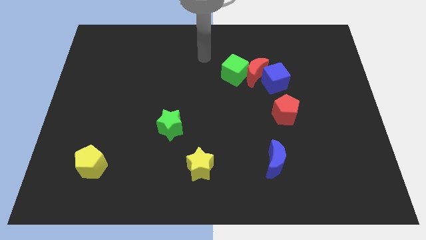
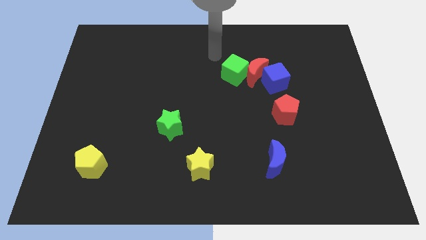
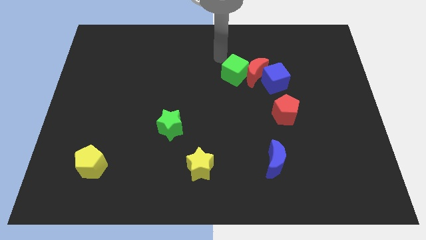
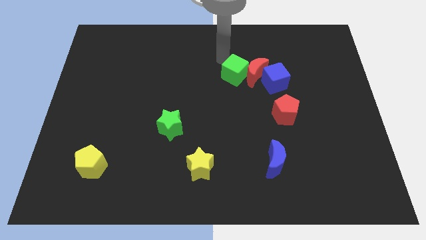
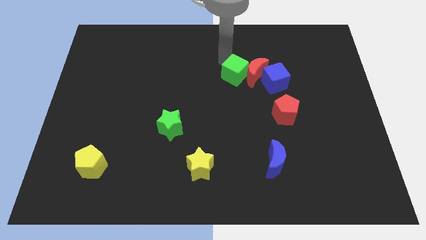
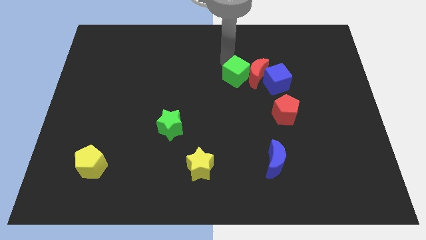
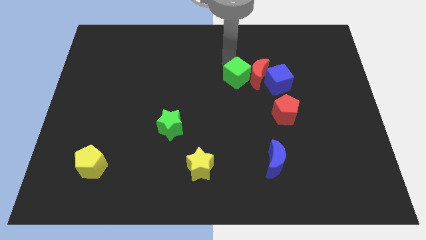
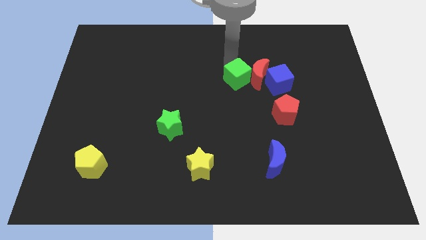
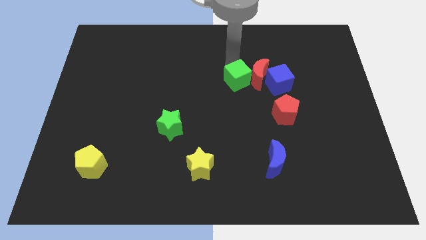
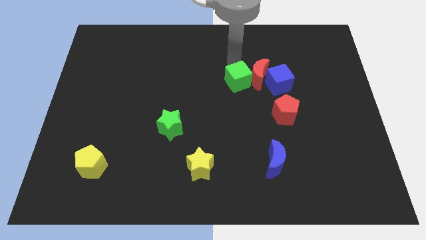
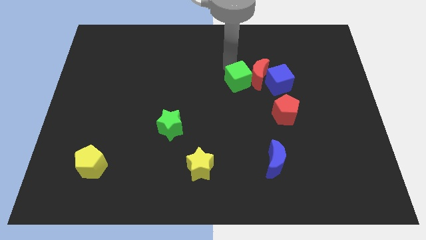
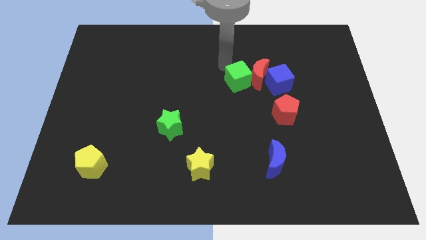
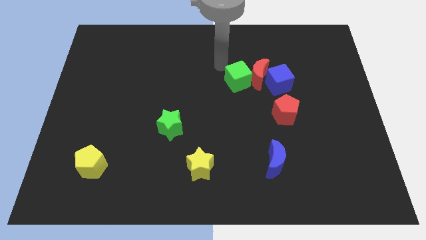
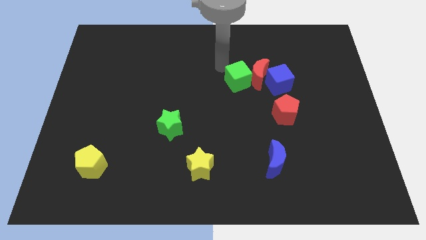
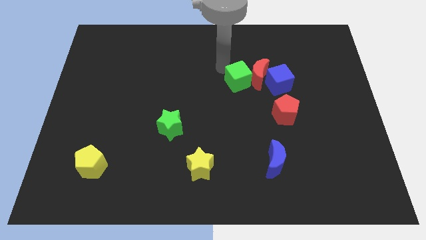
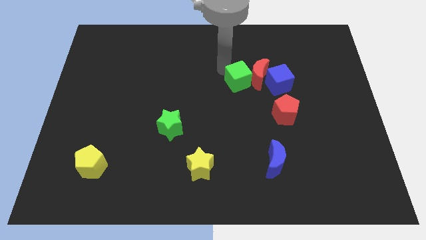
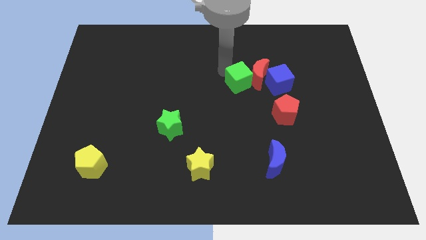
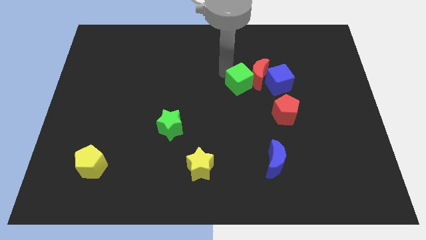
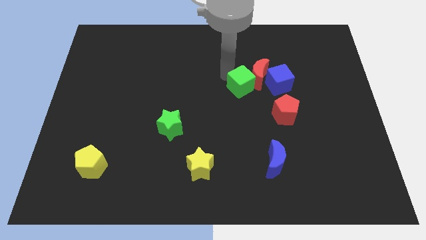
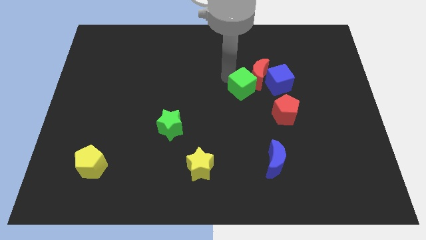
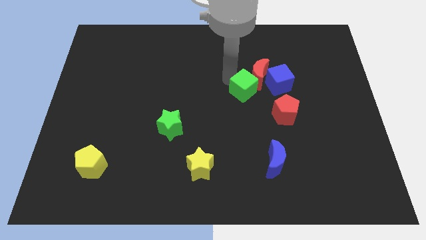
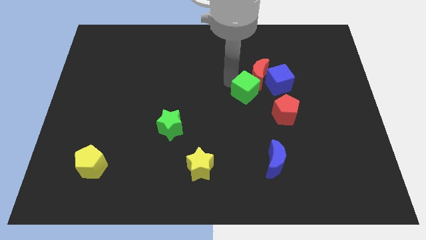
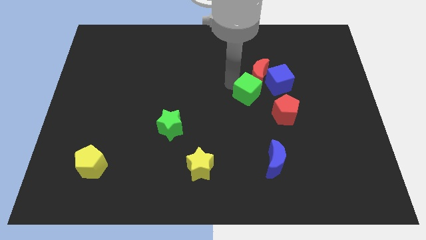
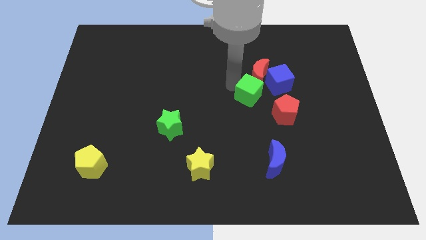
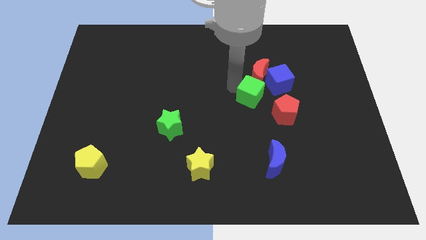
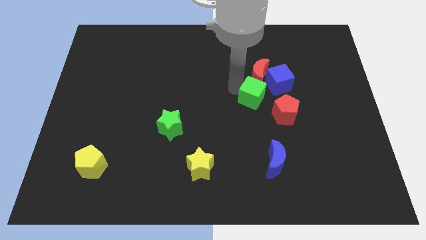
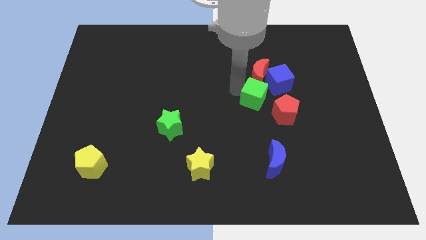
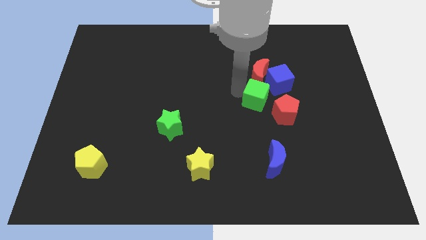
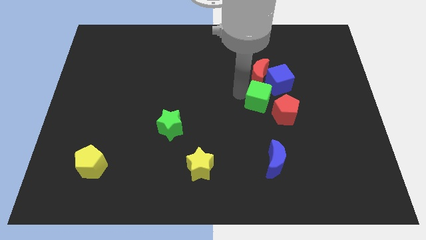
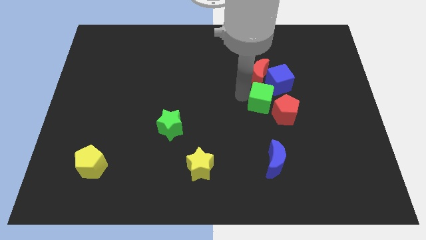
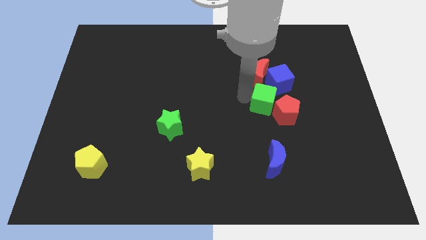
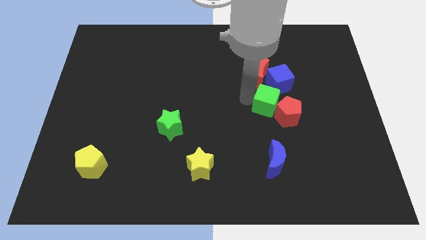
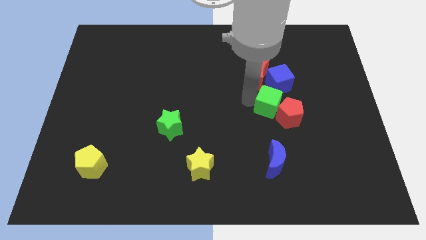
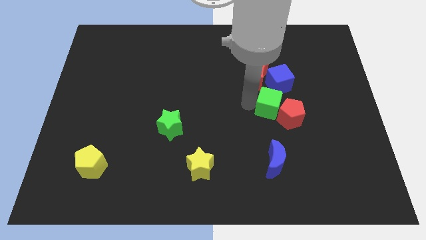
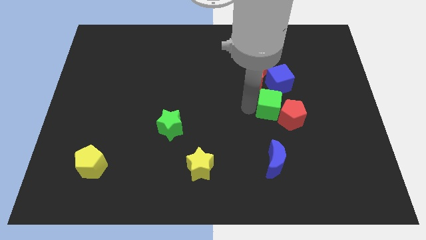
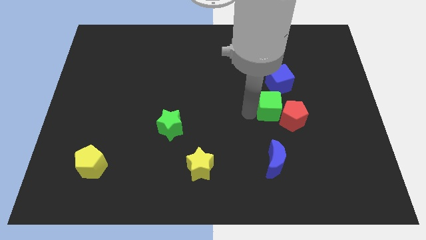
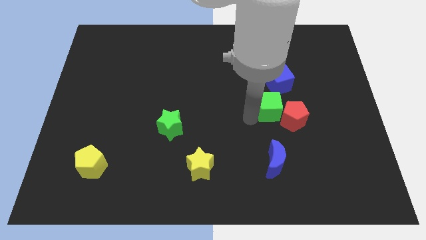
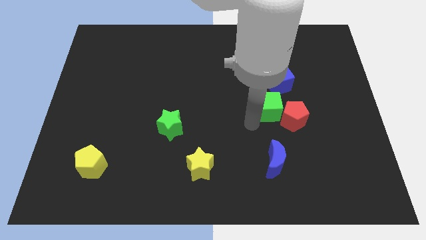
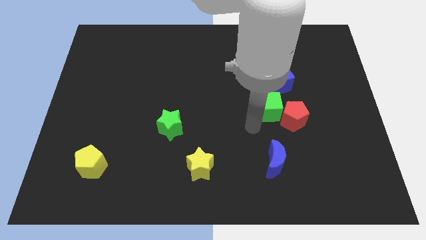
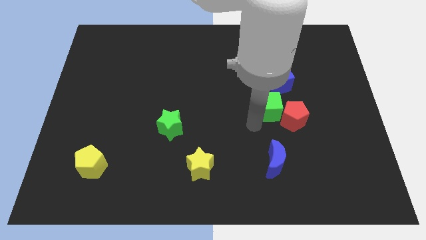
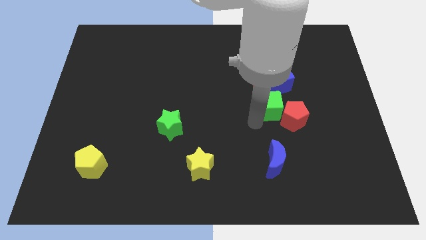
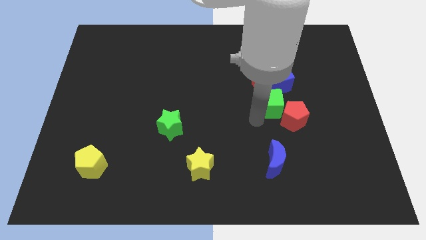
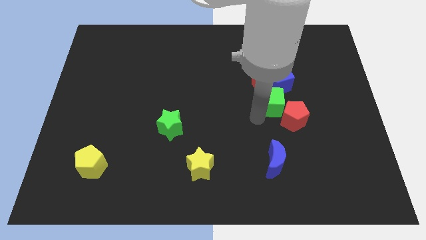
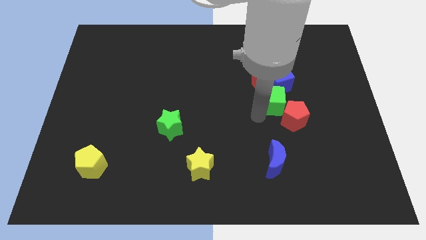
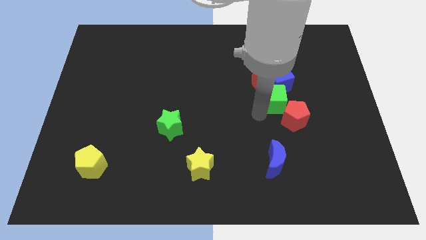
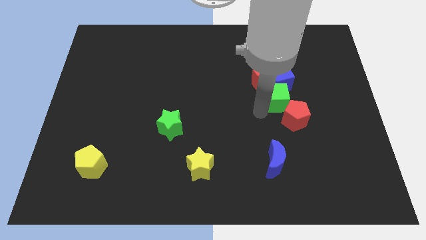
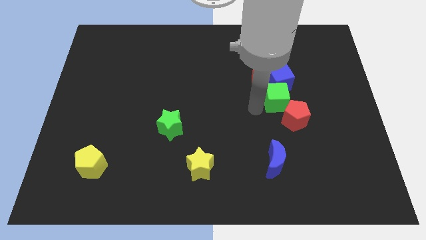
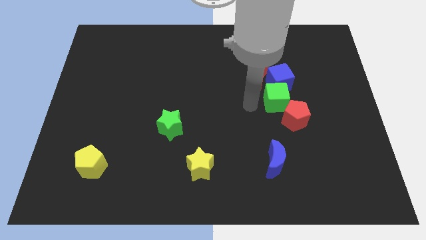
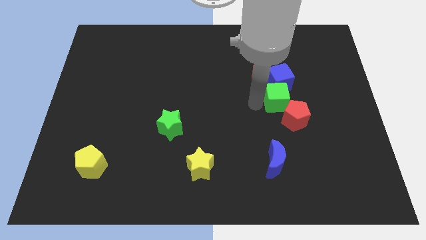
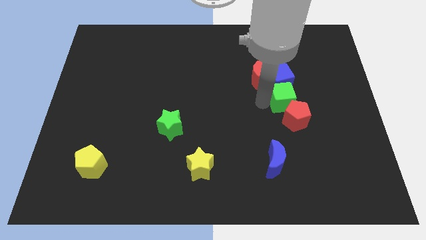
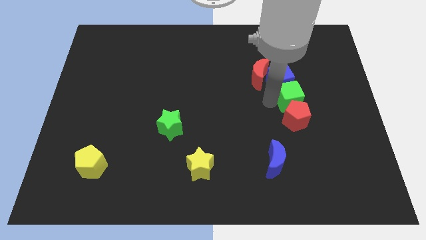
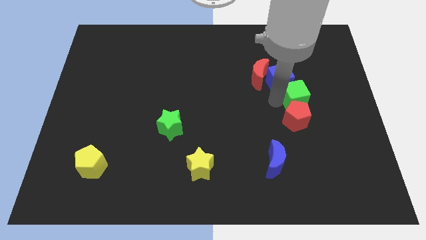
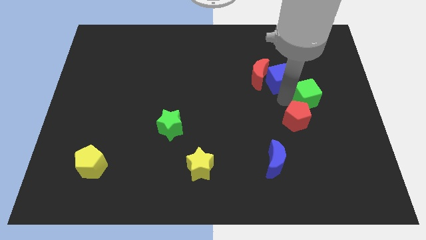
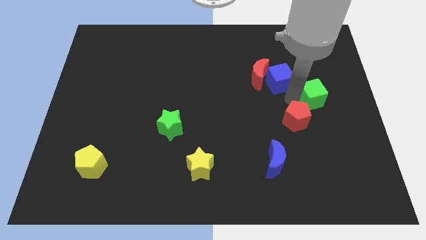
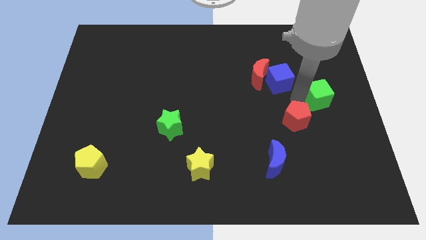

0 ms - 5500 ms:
slide the green cube to the right side

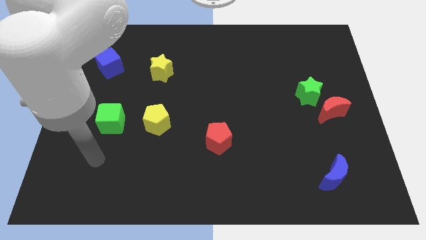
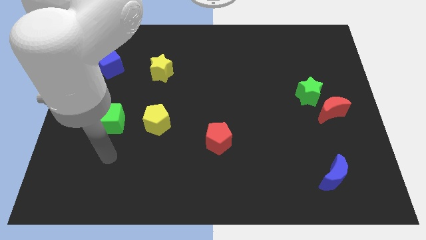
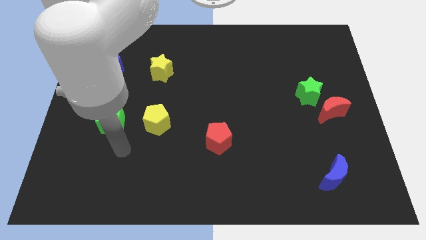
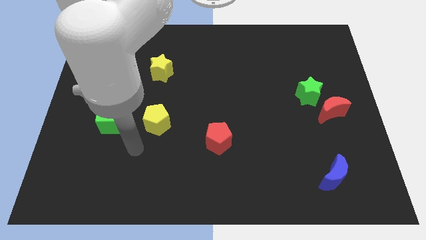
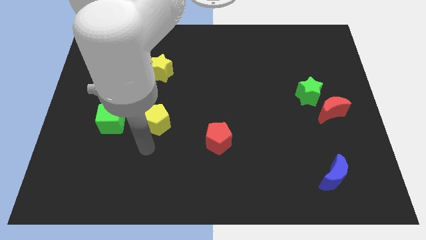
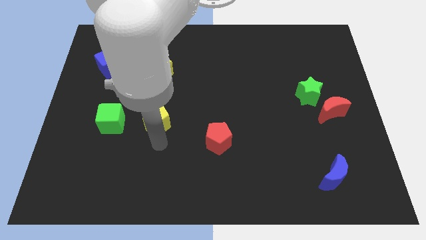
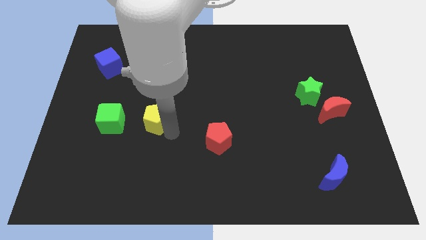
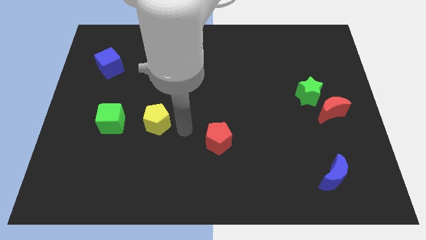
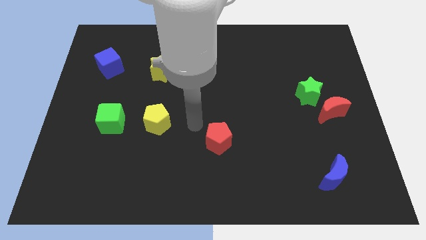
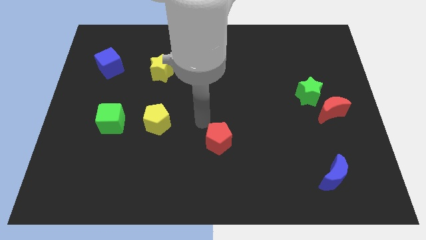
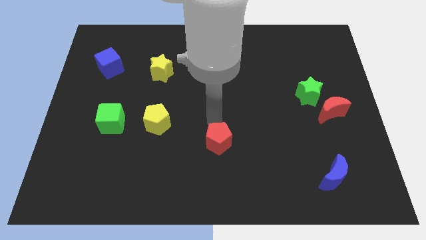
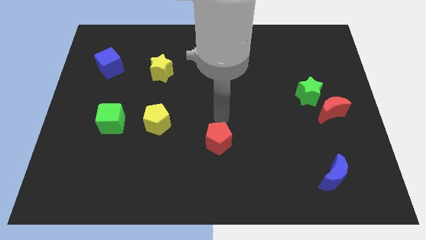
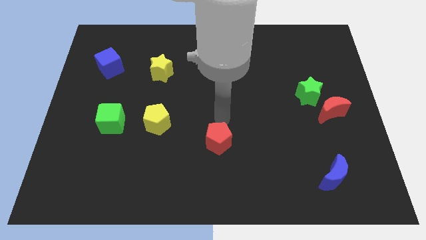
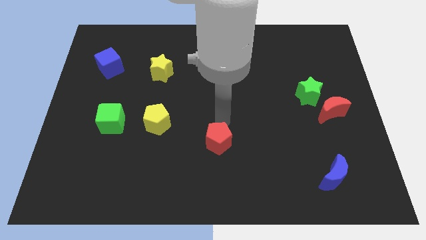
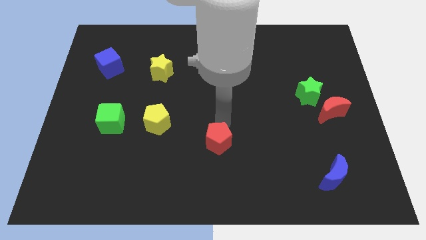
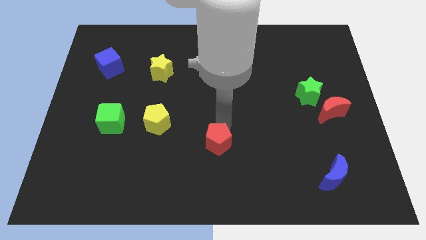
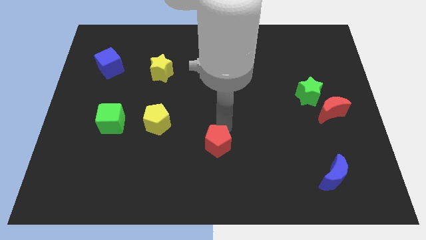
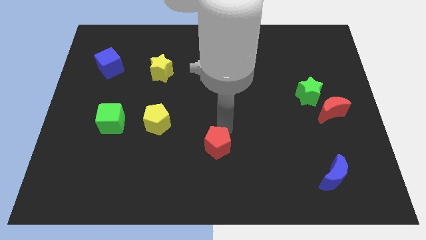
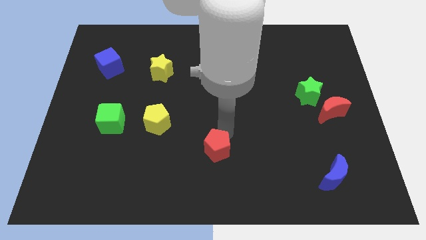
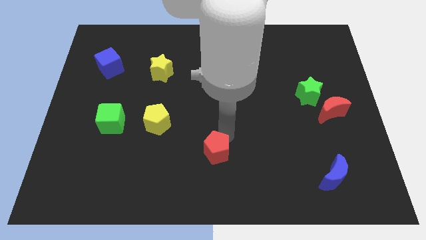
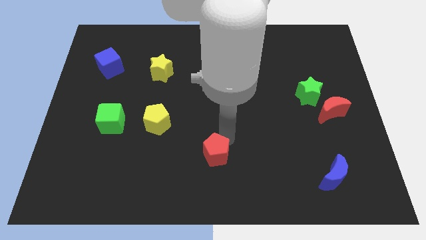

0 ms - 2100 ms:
slide the red pentagon to the bottom side
